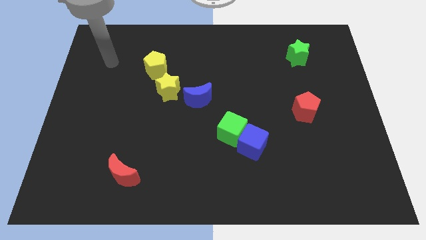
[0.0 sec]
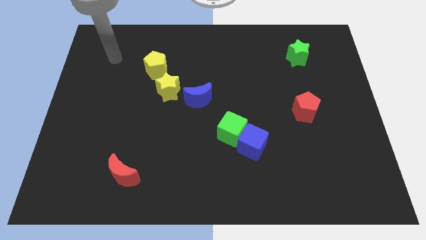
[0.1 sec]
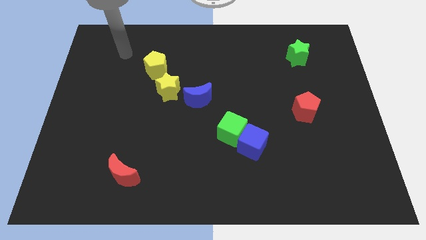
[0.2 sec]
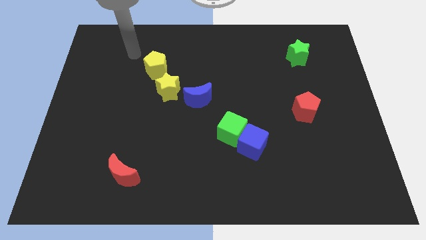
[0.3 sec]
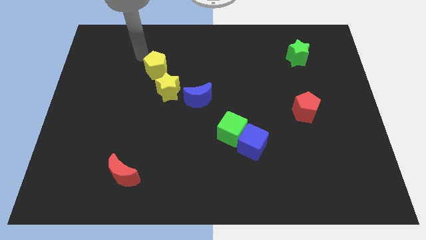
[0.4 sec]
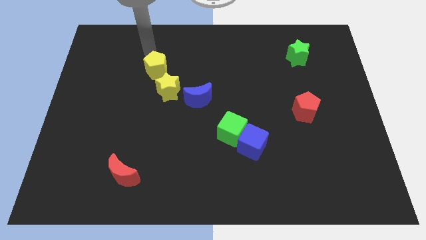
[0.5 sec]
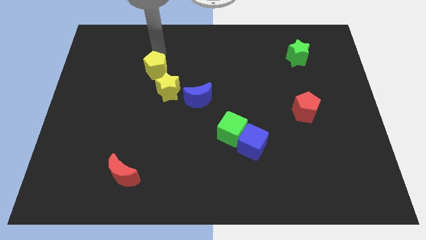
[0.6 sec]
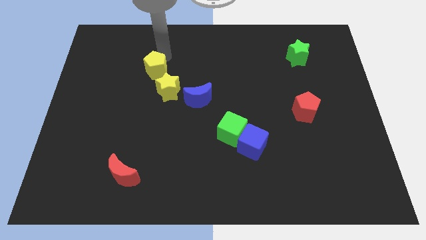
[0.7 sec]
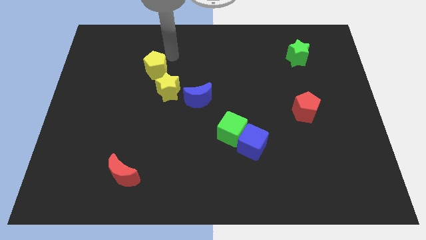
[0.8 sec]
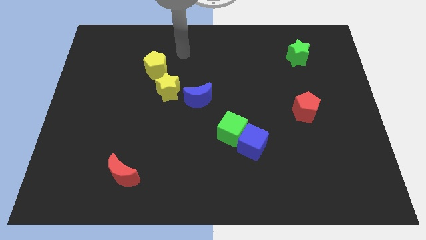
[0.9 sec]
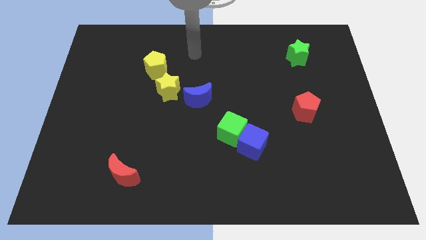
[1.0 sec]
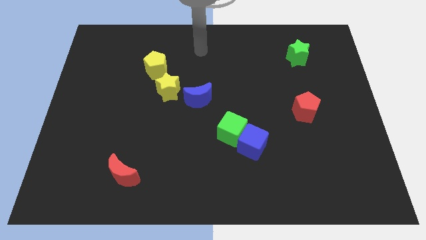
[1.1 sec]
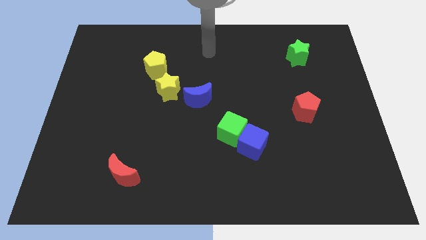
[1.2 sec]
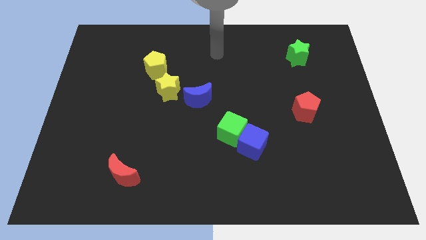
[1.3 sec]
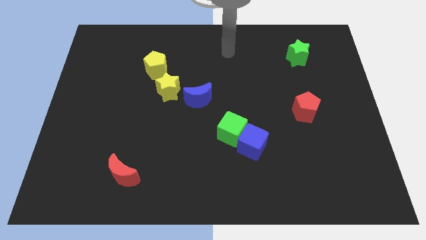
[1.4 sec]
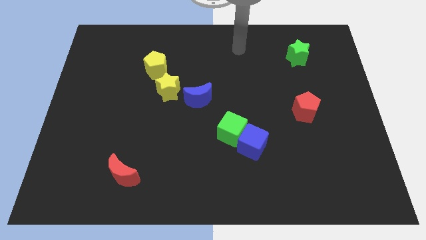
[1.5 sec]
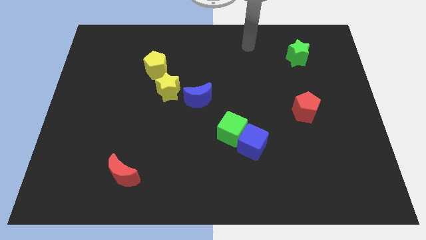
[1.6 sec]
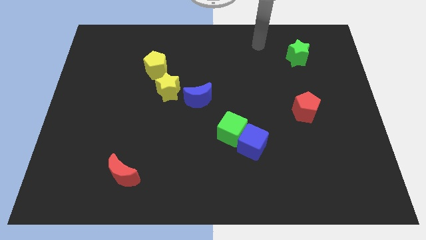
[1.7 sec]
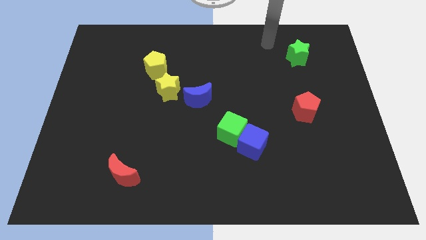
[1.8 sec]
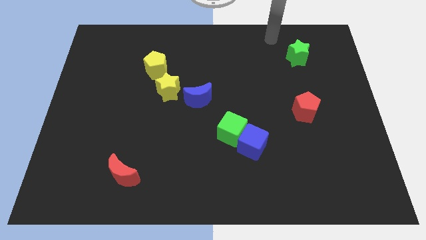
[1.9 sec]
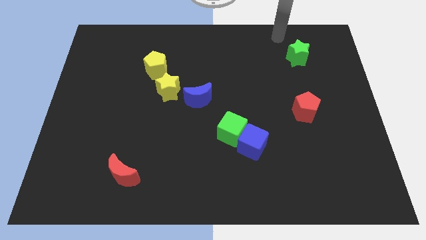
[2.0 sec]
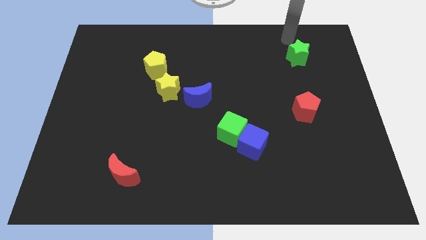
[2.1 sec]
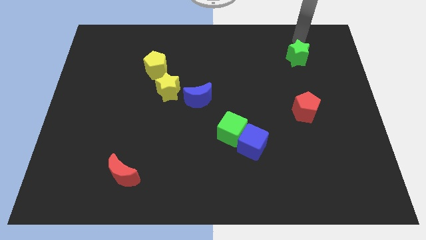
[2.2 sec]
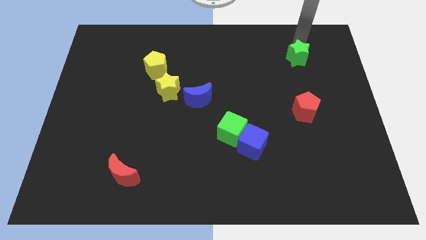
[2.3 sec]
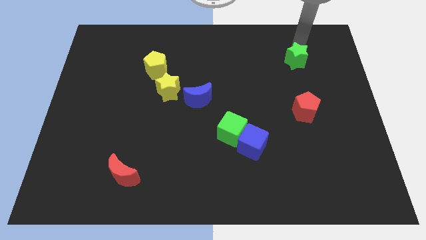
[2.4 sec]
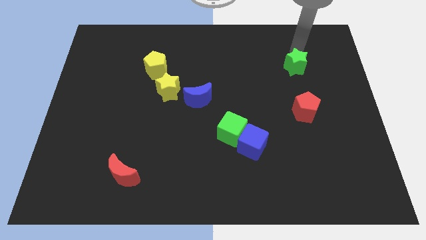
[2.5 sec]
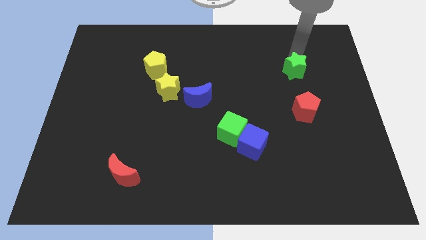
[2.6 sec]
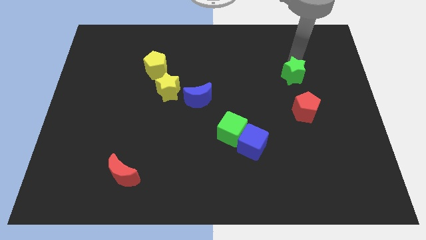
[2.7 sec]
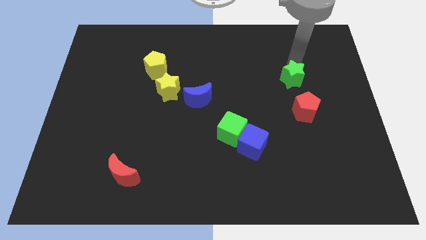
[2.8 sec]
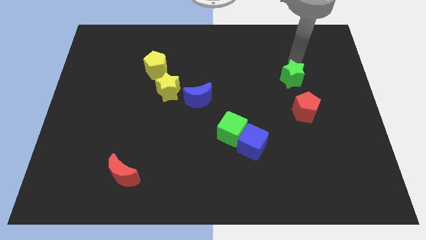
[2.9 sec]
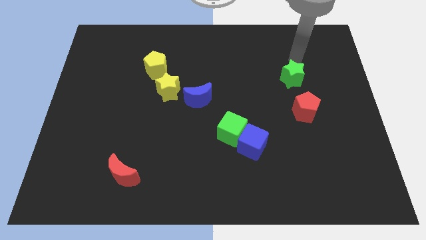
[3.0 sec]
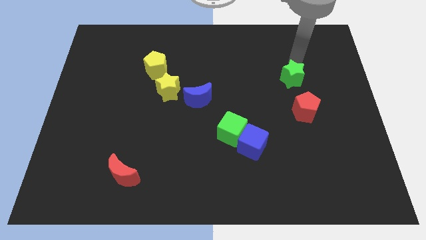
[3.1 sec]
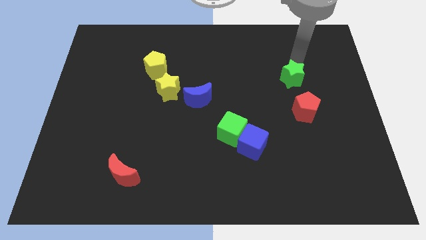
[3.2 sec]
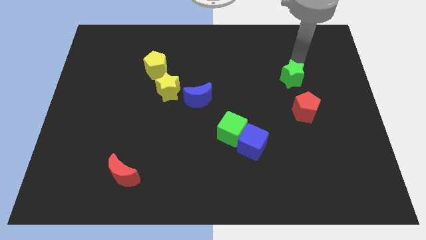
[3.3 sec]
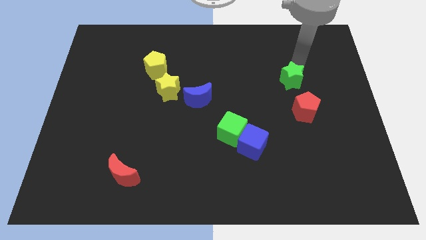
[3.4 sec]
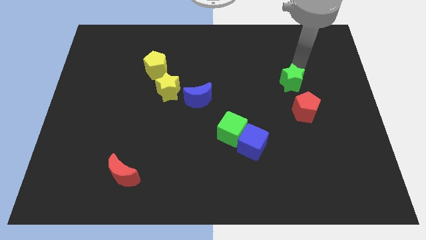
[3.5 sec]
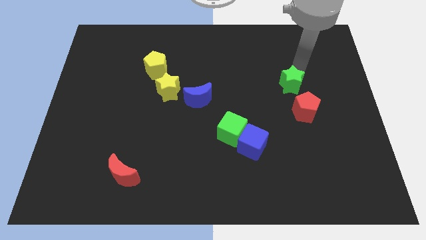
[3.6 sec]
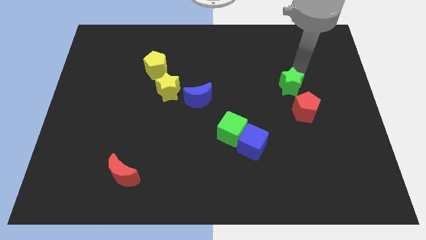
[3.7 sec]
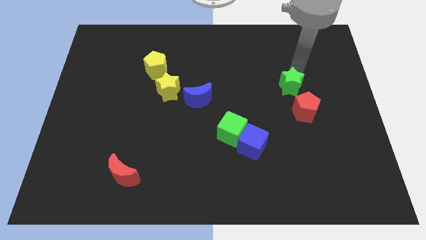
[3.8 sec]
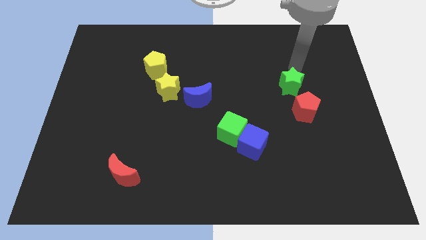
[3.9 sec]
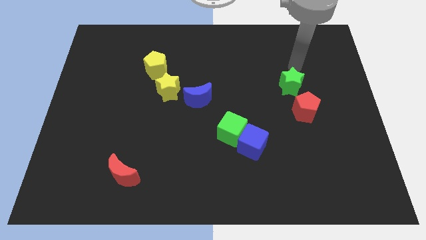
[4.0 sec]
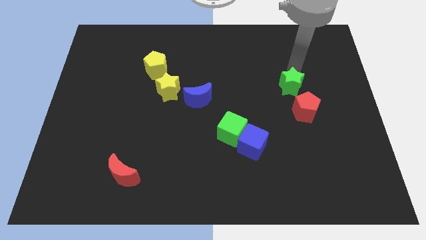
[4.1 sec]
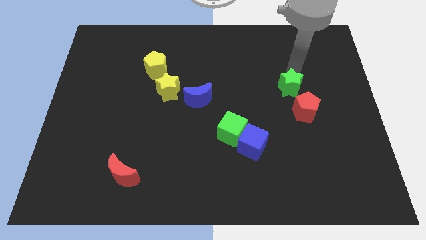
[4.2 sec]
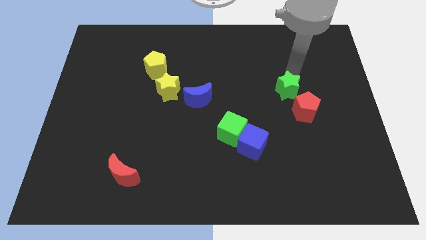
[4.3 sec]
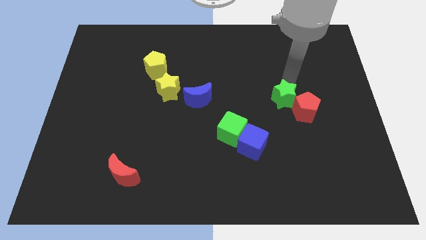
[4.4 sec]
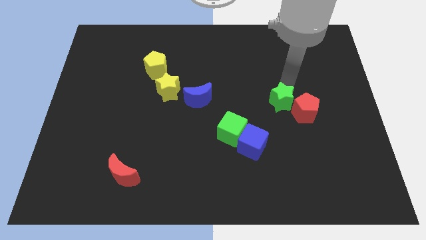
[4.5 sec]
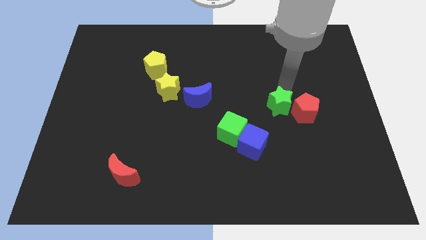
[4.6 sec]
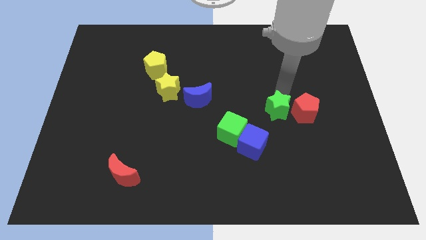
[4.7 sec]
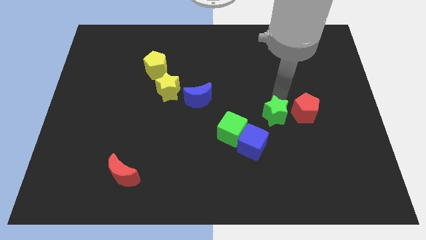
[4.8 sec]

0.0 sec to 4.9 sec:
move the green star right of the green cube

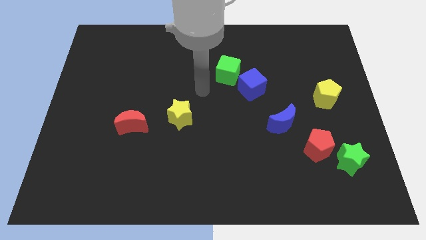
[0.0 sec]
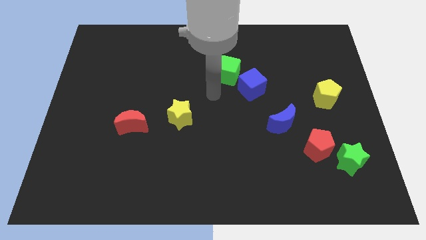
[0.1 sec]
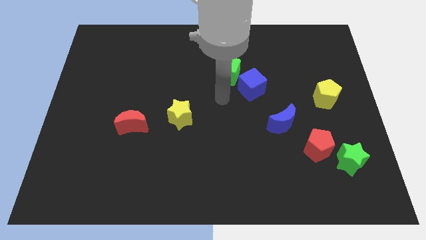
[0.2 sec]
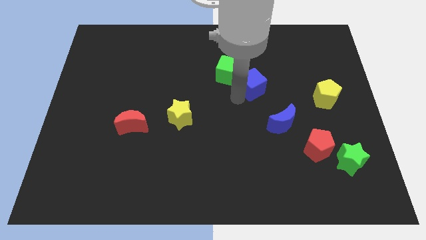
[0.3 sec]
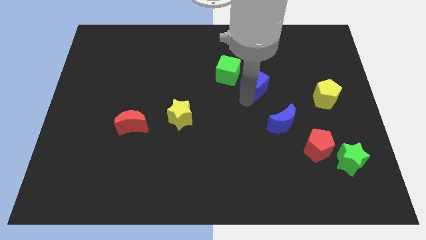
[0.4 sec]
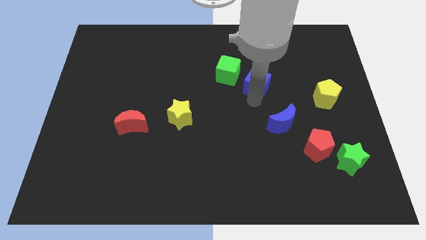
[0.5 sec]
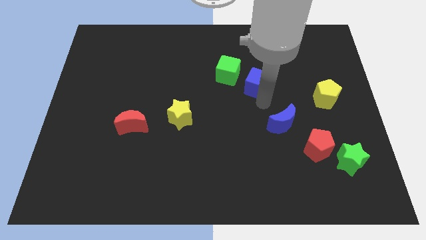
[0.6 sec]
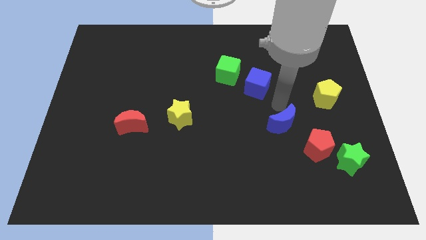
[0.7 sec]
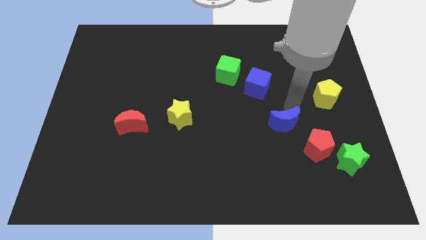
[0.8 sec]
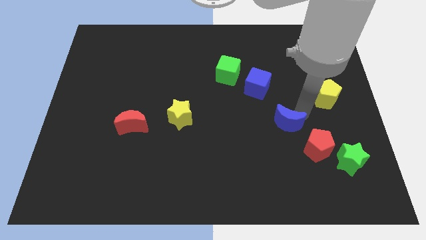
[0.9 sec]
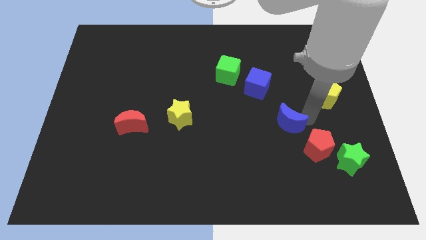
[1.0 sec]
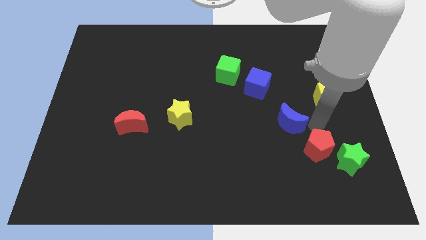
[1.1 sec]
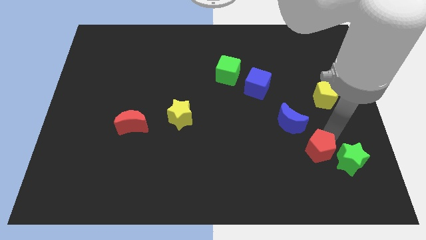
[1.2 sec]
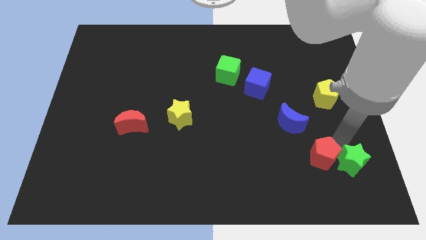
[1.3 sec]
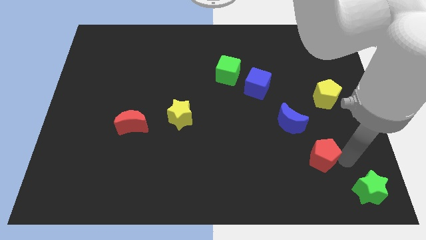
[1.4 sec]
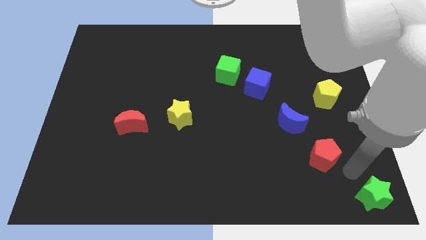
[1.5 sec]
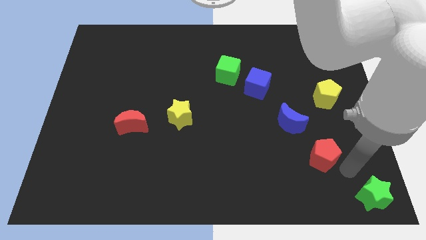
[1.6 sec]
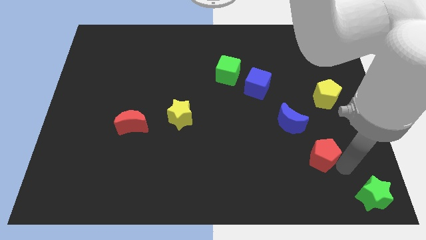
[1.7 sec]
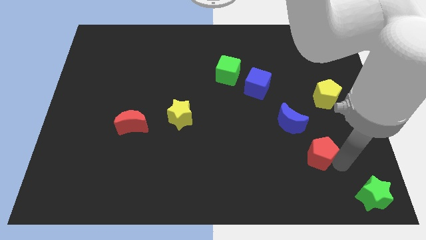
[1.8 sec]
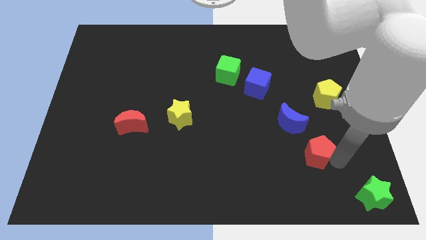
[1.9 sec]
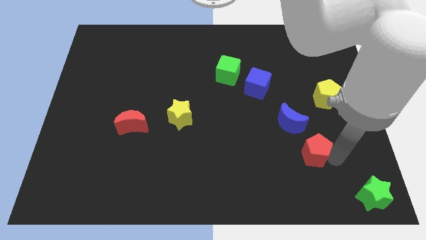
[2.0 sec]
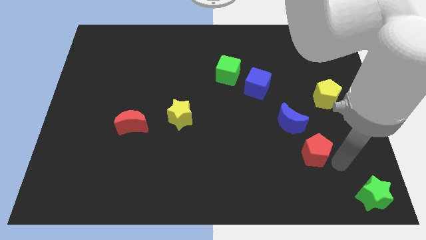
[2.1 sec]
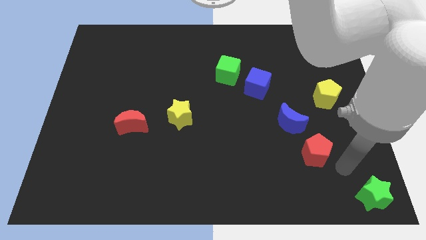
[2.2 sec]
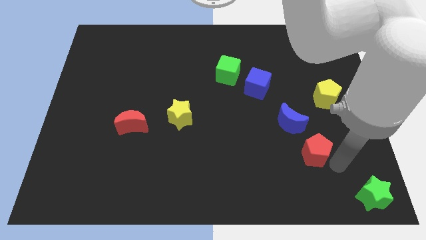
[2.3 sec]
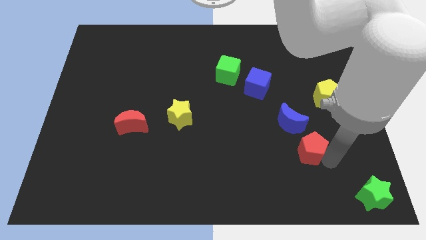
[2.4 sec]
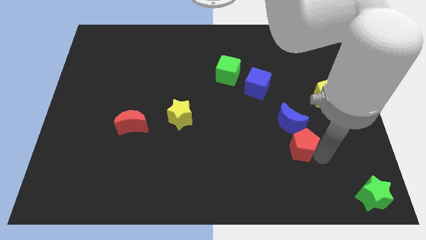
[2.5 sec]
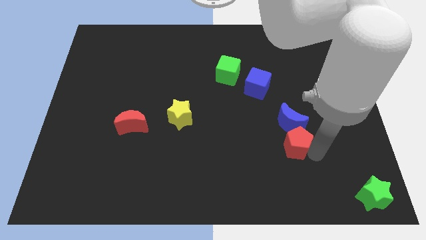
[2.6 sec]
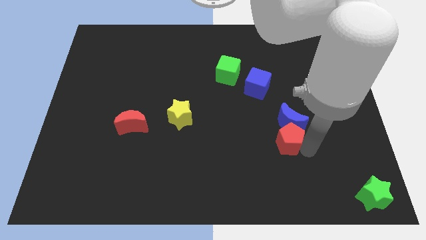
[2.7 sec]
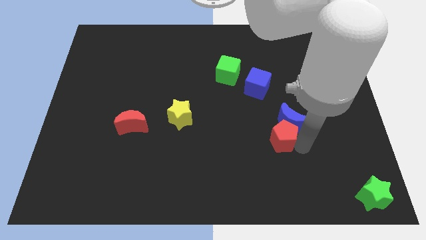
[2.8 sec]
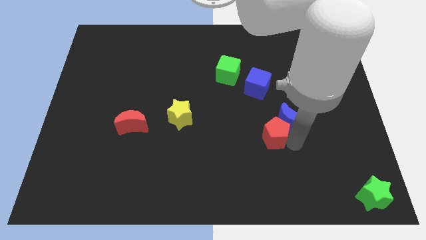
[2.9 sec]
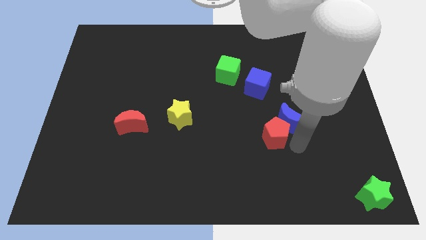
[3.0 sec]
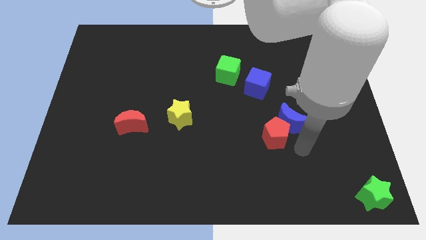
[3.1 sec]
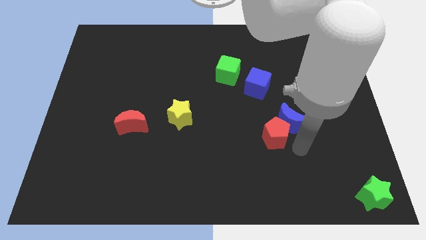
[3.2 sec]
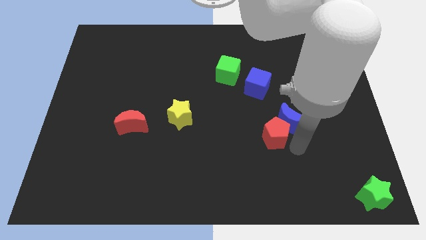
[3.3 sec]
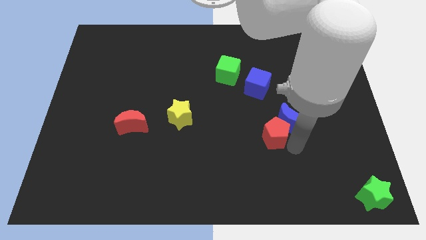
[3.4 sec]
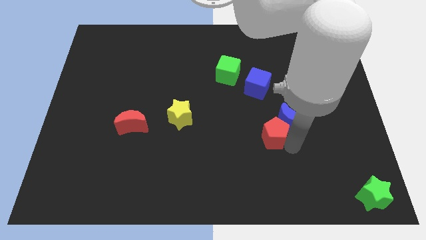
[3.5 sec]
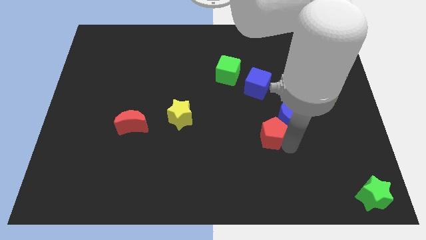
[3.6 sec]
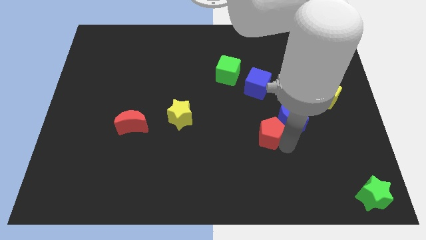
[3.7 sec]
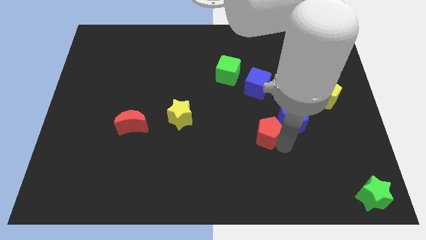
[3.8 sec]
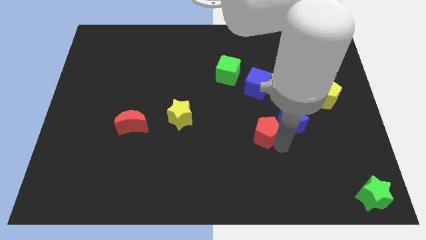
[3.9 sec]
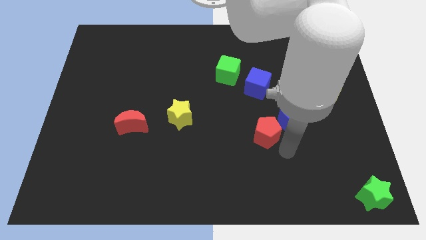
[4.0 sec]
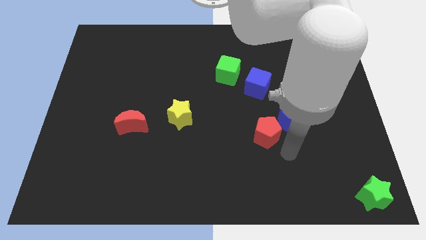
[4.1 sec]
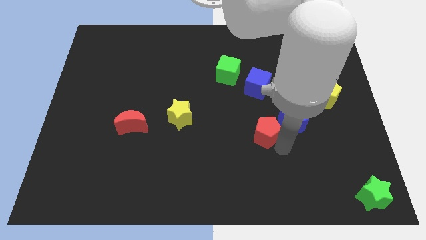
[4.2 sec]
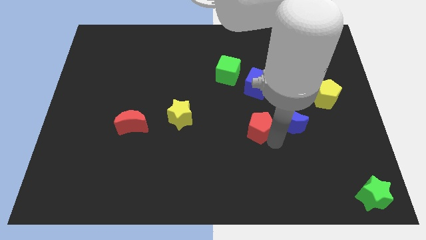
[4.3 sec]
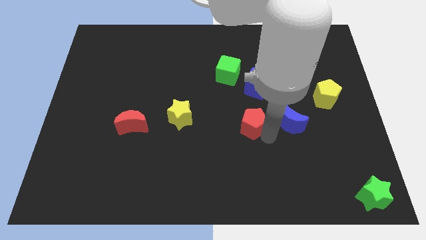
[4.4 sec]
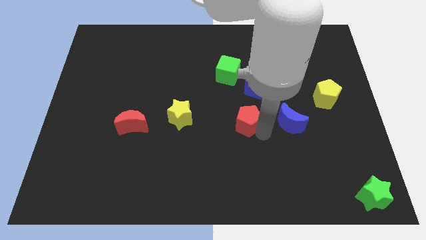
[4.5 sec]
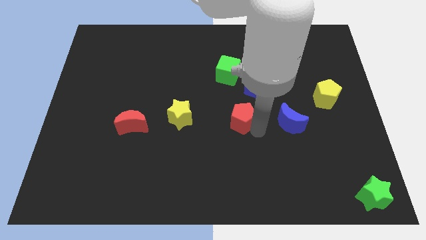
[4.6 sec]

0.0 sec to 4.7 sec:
slide the red pentagon to the bottom side of the green cube
